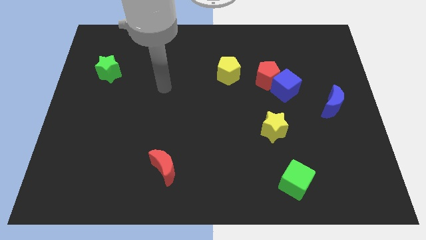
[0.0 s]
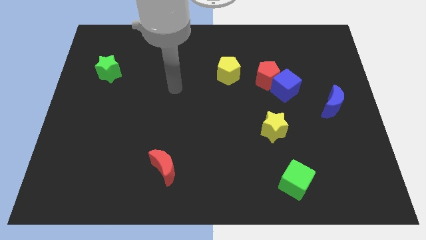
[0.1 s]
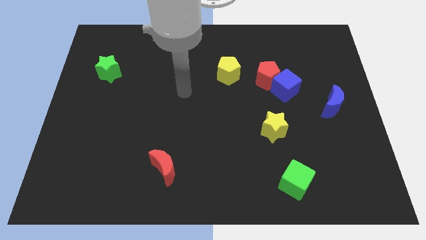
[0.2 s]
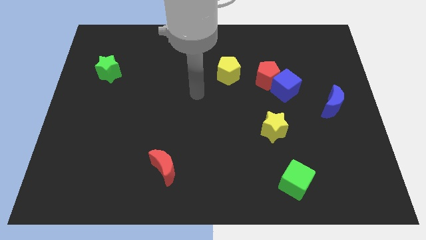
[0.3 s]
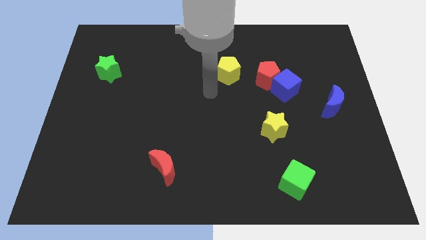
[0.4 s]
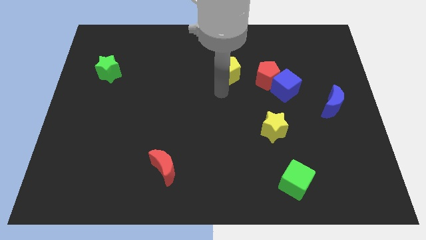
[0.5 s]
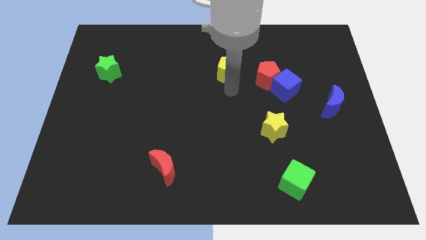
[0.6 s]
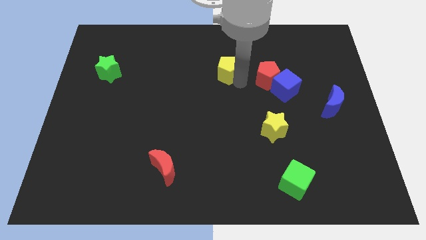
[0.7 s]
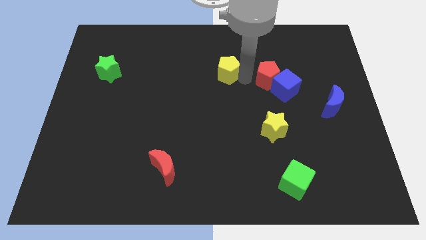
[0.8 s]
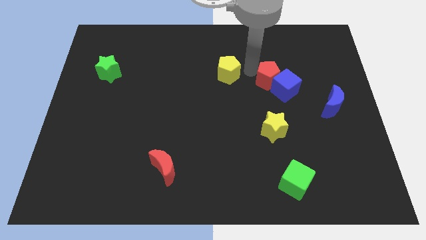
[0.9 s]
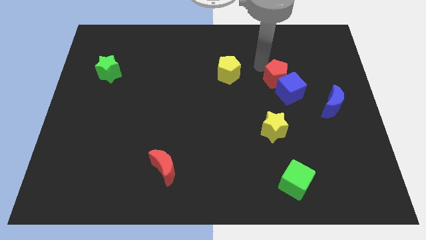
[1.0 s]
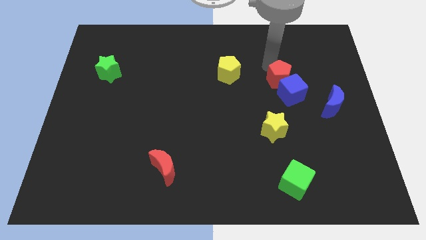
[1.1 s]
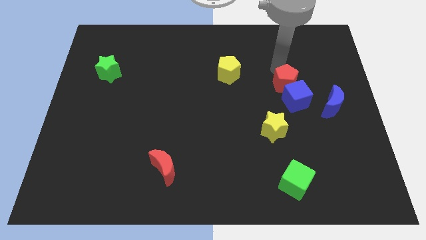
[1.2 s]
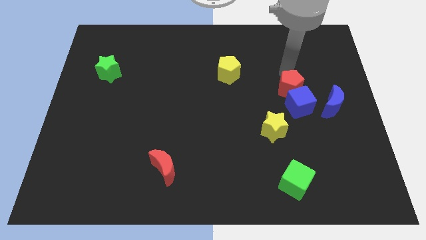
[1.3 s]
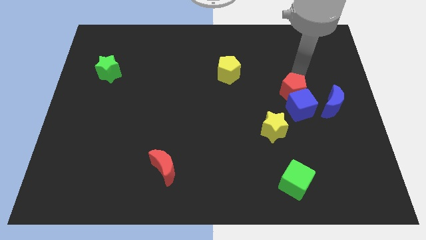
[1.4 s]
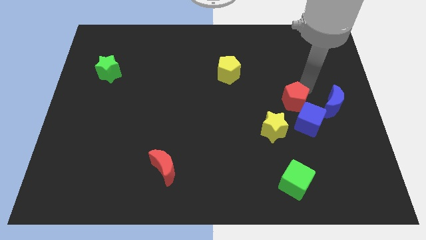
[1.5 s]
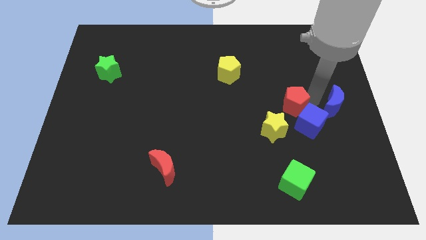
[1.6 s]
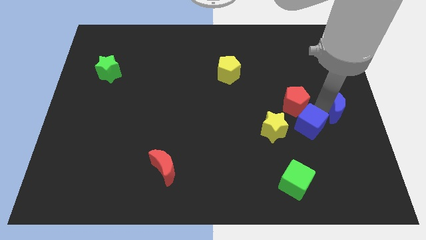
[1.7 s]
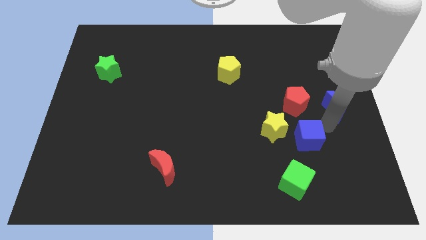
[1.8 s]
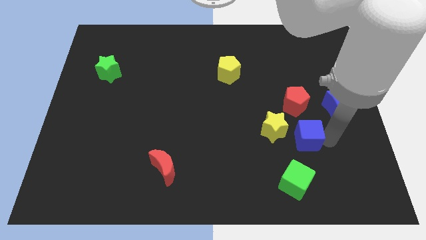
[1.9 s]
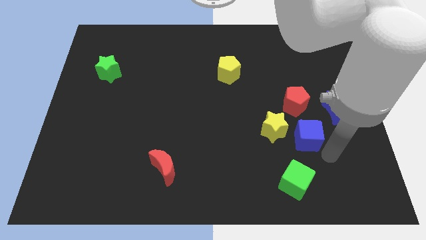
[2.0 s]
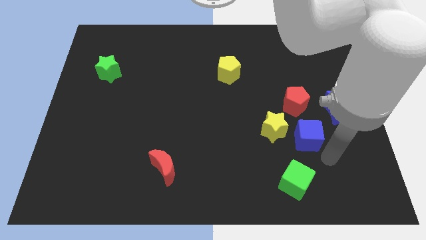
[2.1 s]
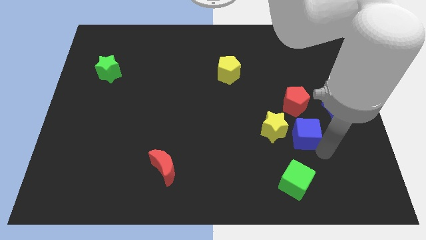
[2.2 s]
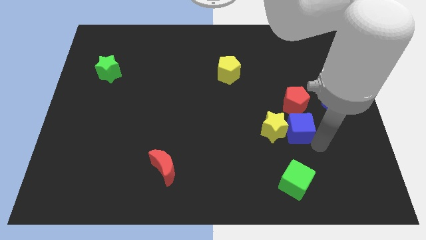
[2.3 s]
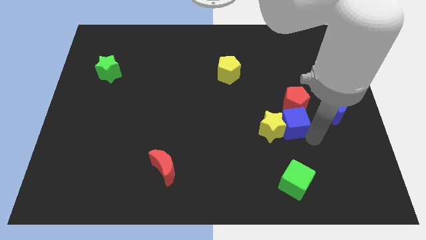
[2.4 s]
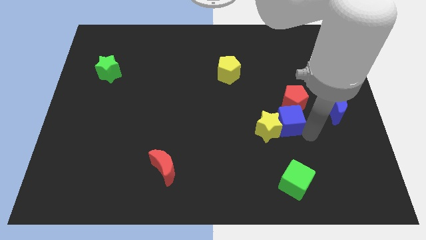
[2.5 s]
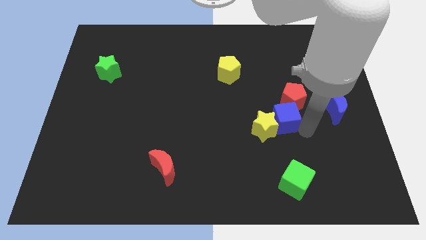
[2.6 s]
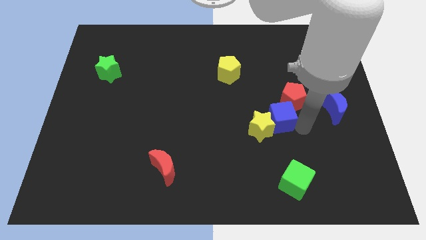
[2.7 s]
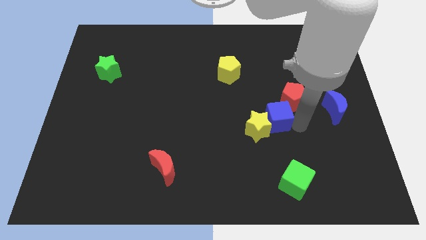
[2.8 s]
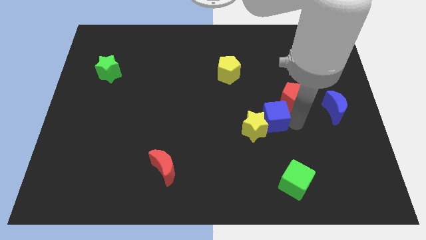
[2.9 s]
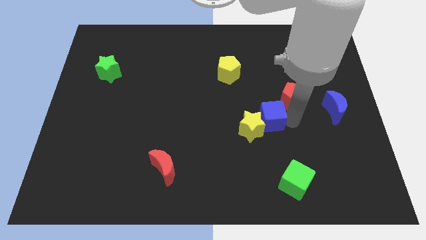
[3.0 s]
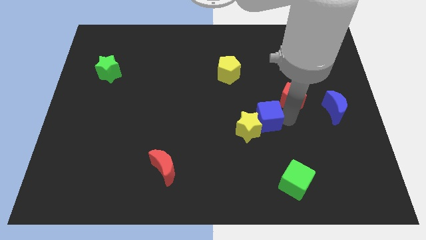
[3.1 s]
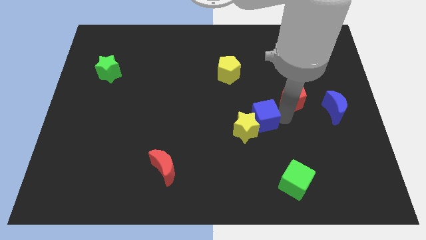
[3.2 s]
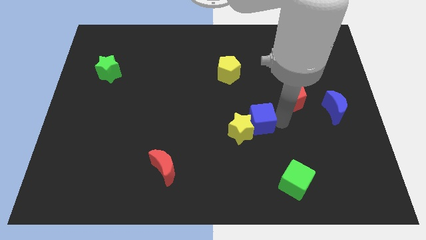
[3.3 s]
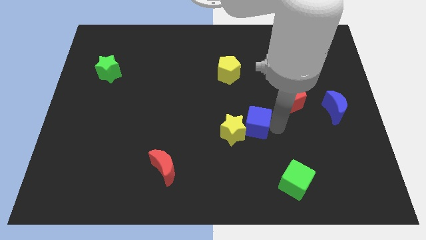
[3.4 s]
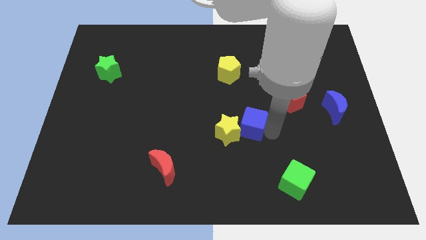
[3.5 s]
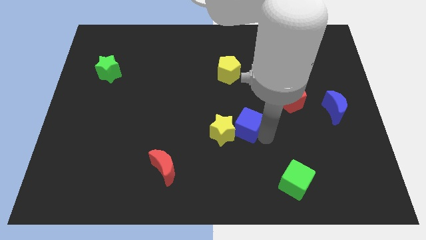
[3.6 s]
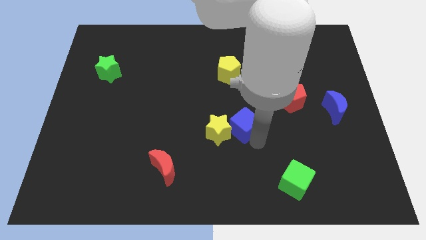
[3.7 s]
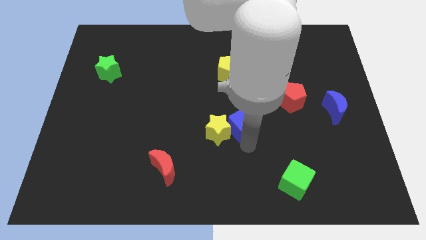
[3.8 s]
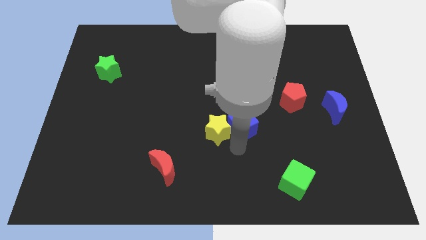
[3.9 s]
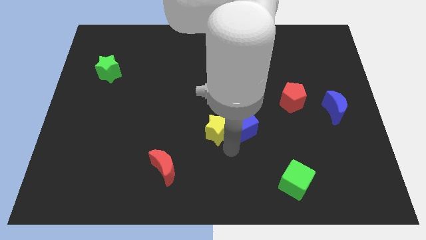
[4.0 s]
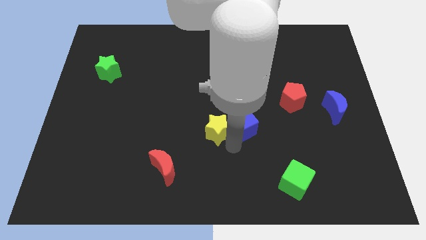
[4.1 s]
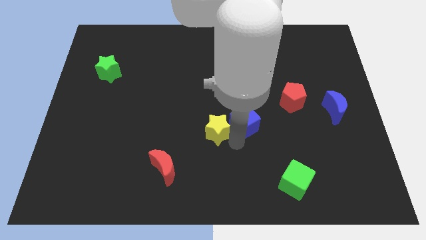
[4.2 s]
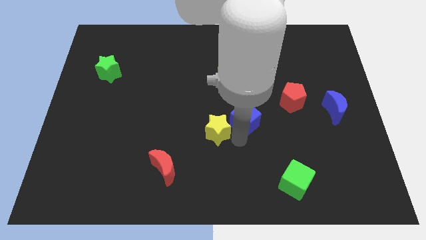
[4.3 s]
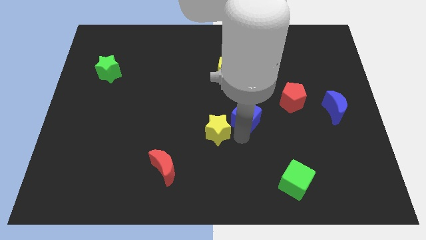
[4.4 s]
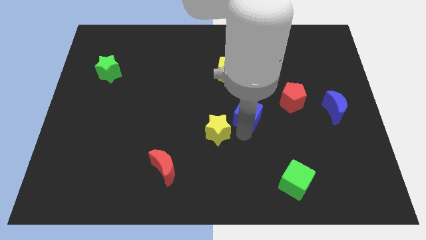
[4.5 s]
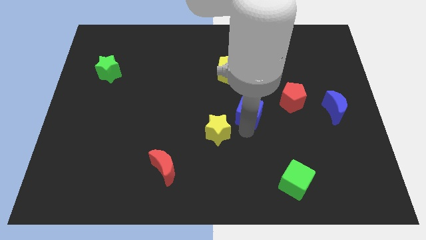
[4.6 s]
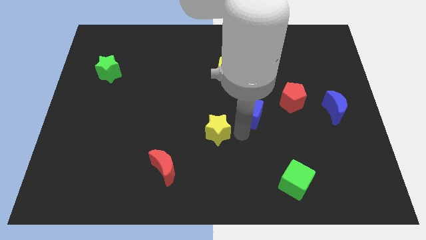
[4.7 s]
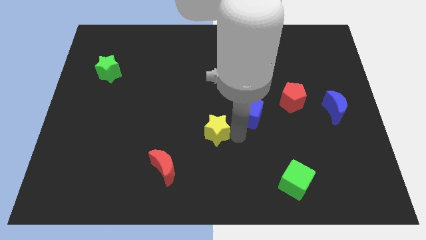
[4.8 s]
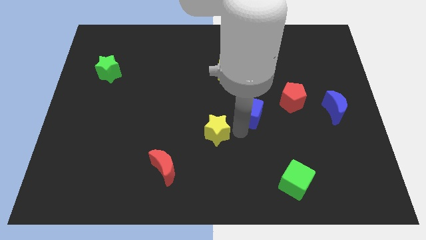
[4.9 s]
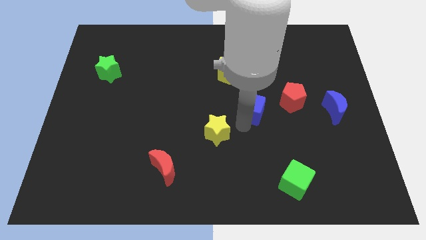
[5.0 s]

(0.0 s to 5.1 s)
move the blue cube to the left somewhat

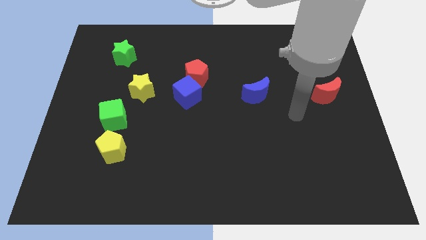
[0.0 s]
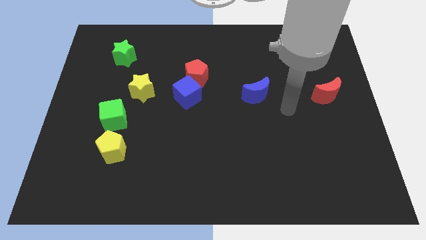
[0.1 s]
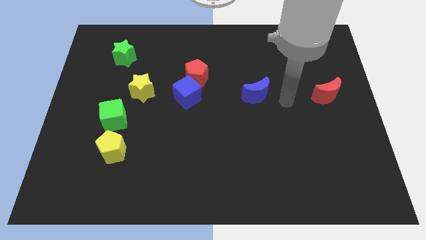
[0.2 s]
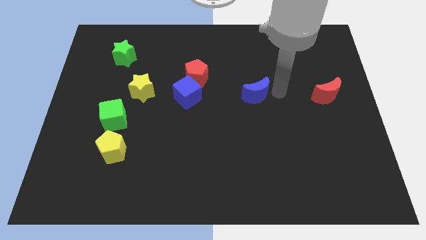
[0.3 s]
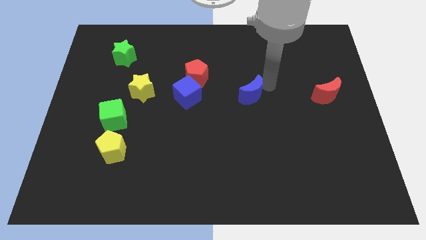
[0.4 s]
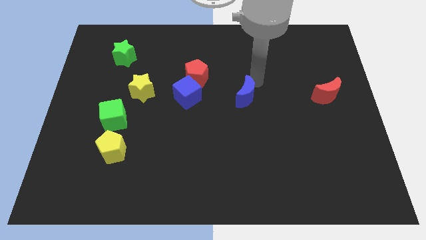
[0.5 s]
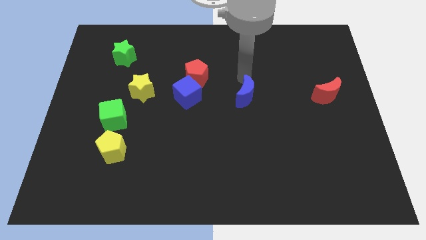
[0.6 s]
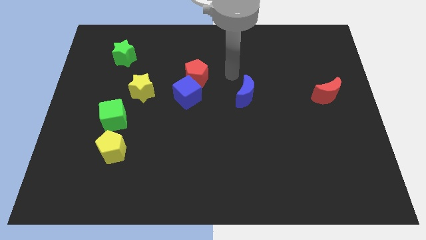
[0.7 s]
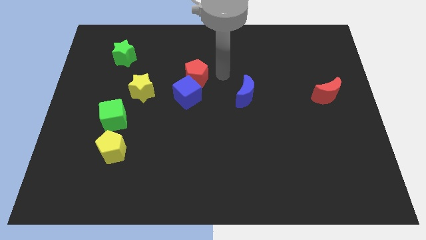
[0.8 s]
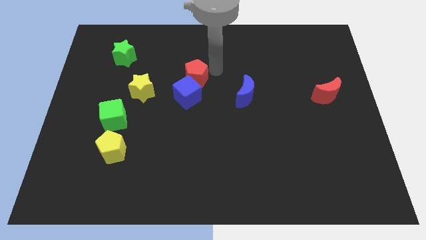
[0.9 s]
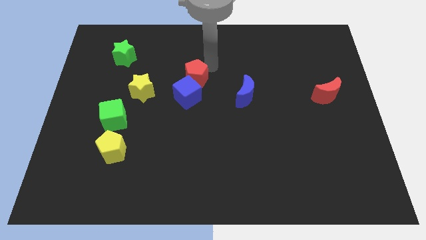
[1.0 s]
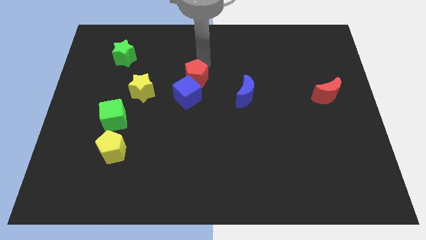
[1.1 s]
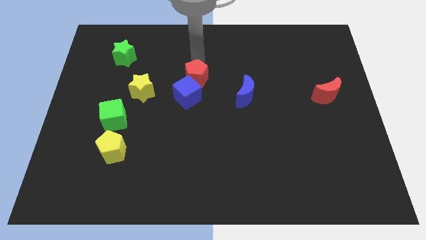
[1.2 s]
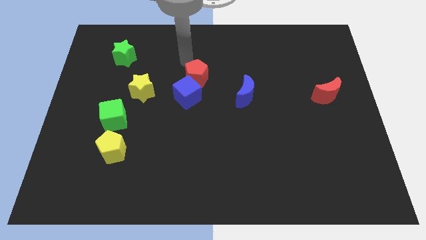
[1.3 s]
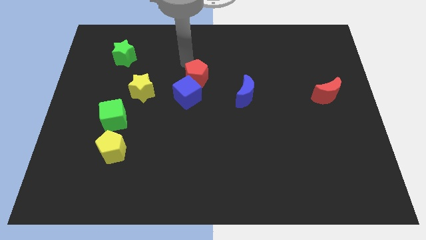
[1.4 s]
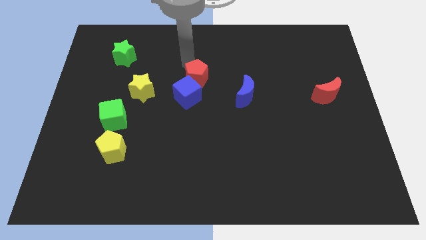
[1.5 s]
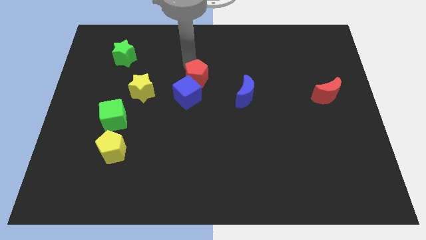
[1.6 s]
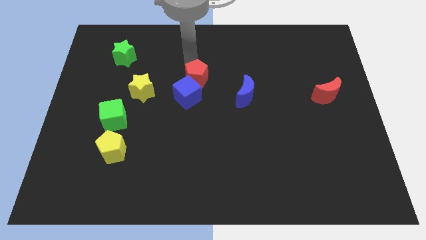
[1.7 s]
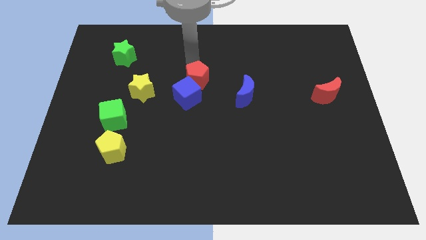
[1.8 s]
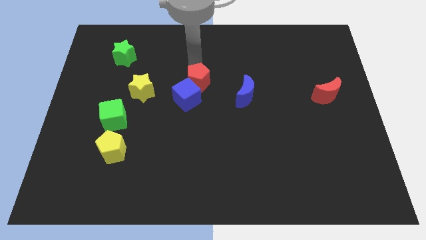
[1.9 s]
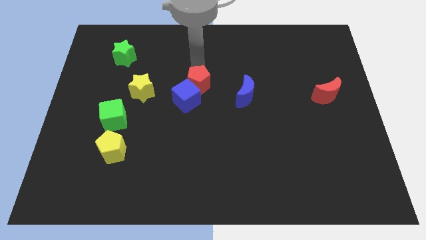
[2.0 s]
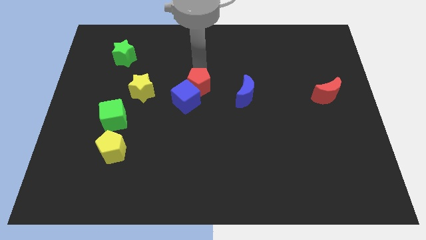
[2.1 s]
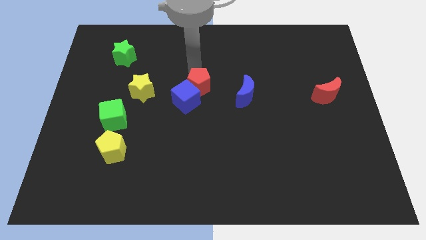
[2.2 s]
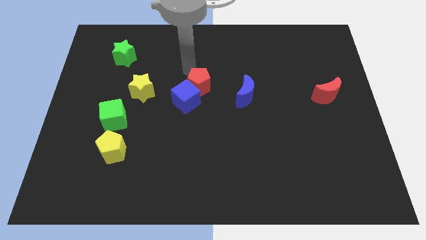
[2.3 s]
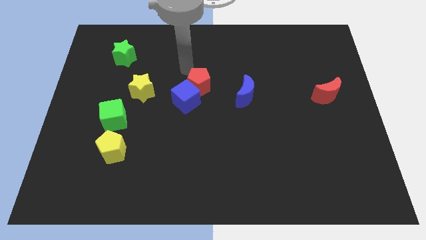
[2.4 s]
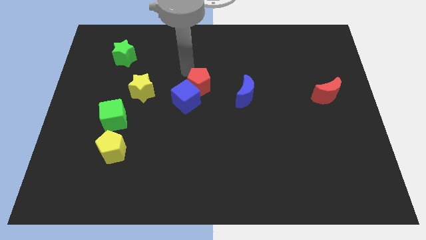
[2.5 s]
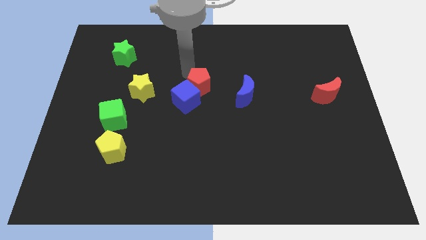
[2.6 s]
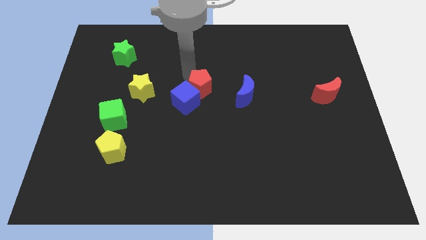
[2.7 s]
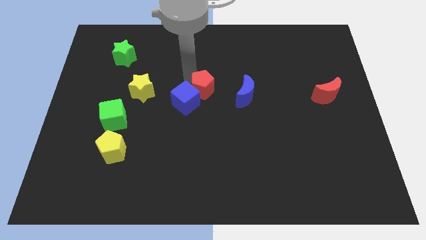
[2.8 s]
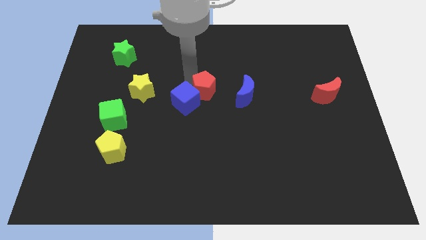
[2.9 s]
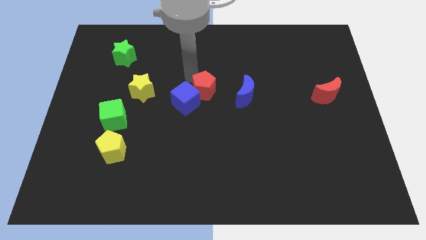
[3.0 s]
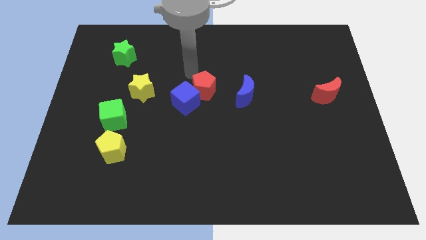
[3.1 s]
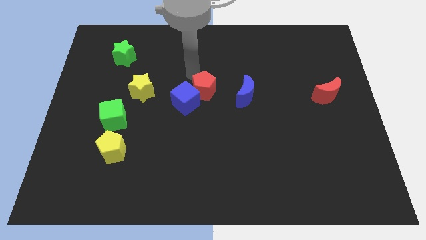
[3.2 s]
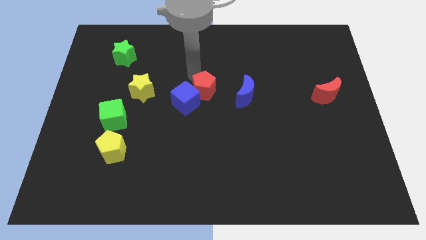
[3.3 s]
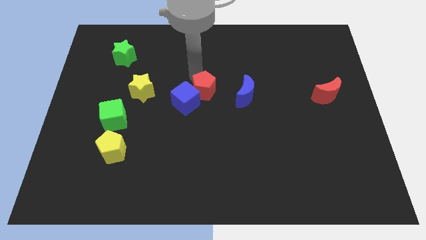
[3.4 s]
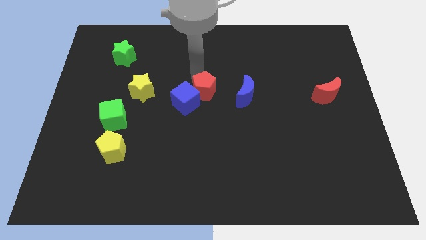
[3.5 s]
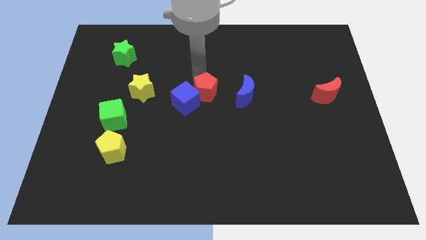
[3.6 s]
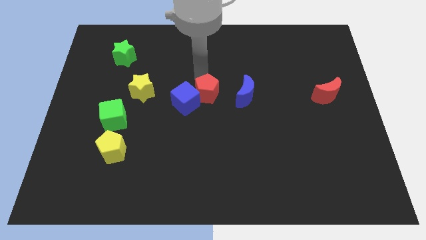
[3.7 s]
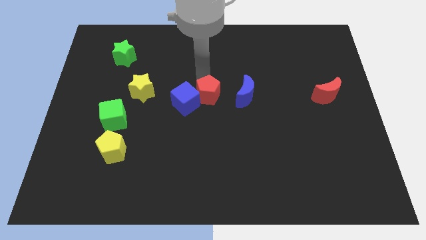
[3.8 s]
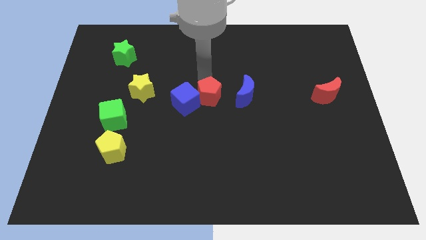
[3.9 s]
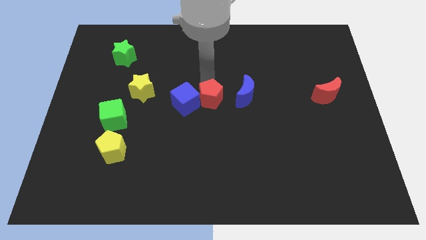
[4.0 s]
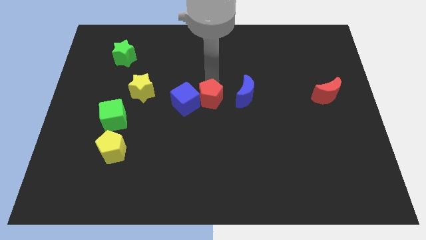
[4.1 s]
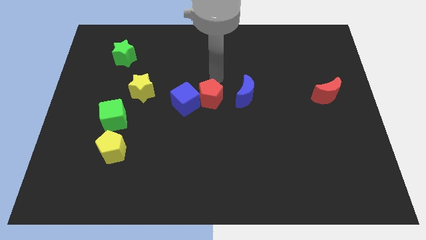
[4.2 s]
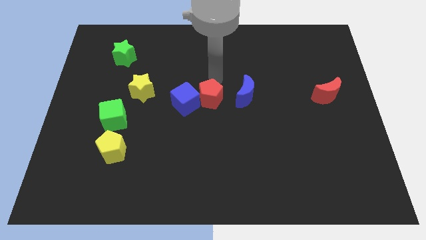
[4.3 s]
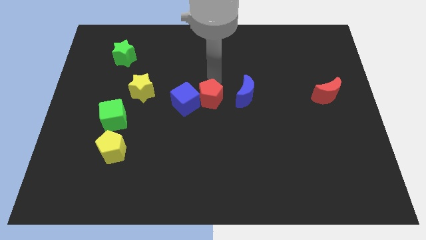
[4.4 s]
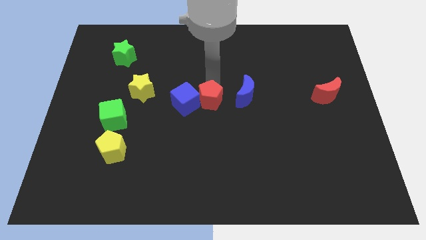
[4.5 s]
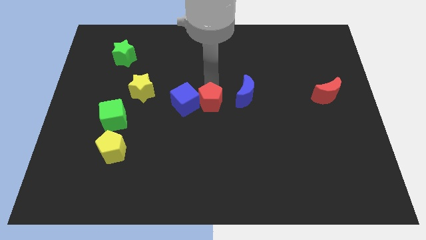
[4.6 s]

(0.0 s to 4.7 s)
slightly push the red pentagon downwards
